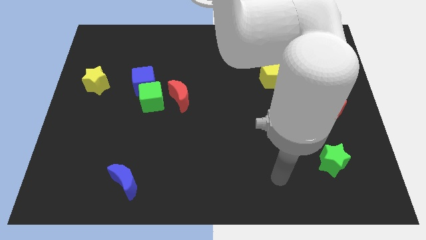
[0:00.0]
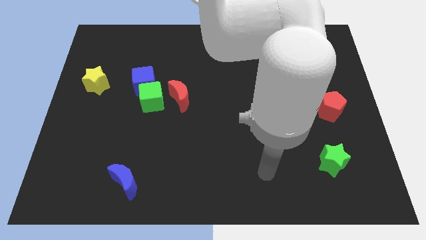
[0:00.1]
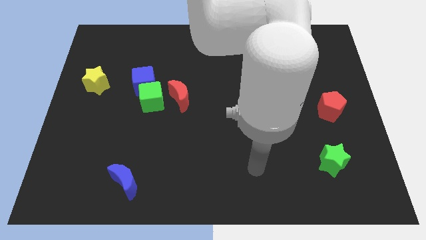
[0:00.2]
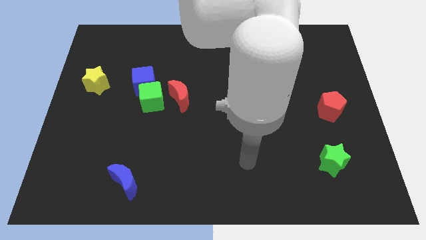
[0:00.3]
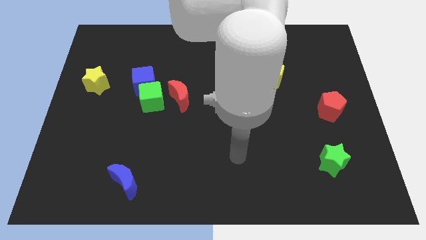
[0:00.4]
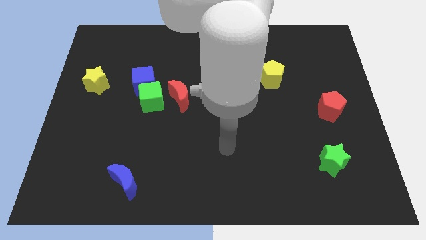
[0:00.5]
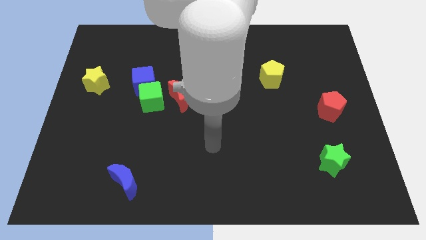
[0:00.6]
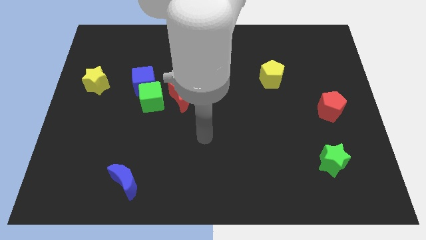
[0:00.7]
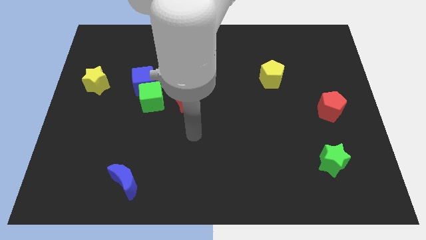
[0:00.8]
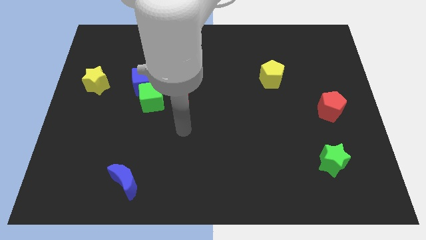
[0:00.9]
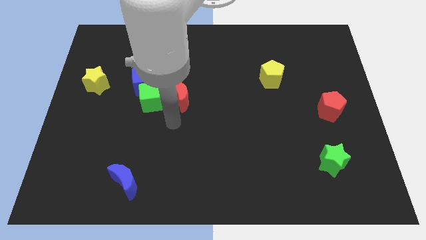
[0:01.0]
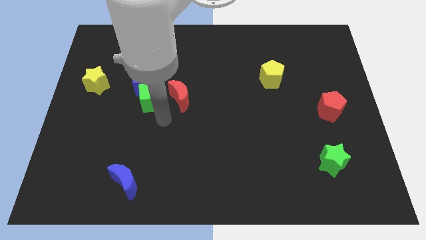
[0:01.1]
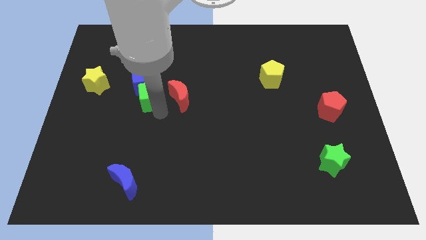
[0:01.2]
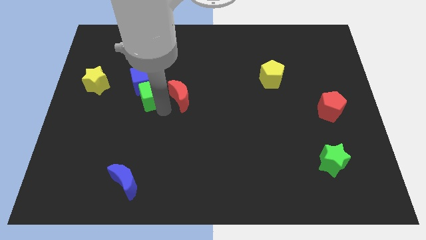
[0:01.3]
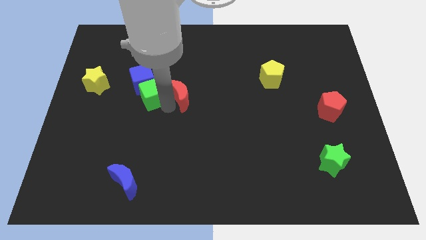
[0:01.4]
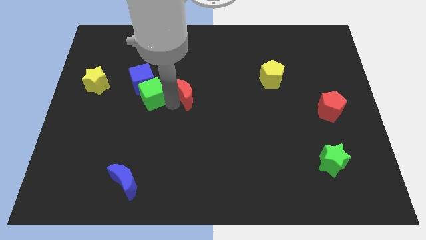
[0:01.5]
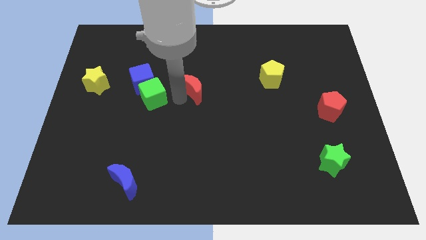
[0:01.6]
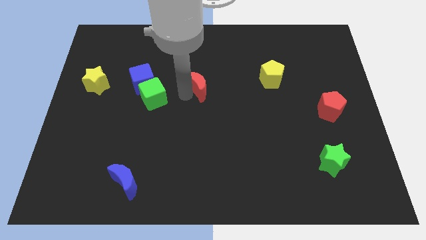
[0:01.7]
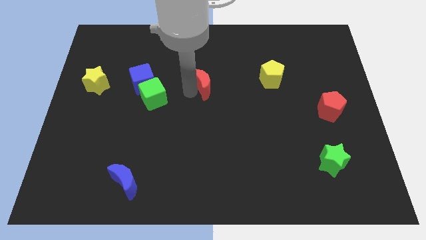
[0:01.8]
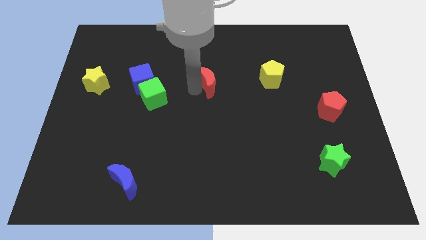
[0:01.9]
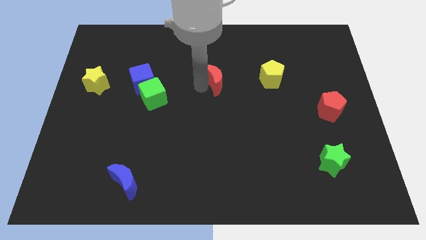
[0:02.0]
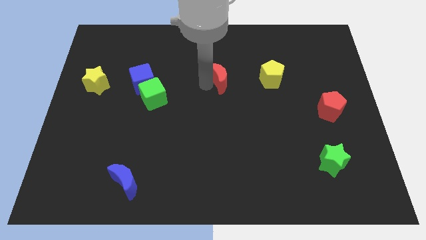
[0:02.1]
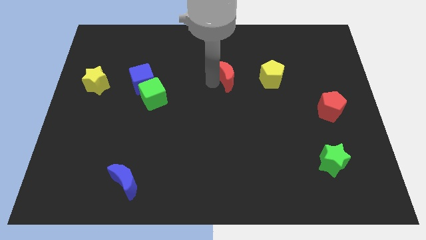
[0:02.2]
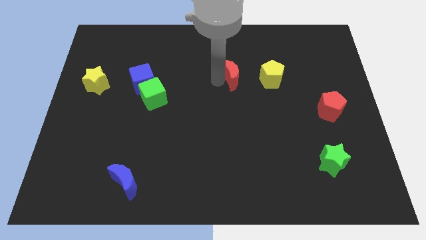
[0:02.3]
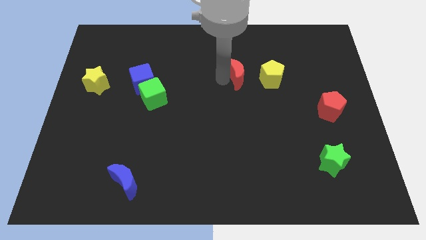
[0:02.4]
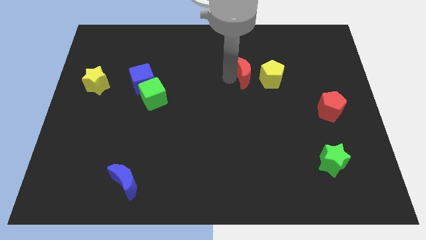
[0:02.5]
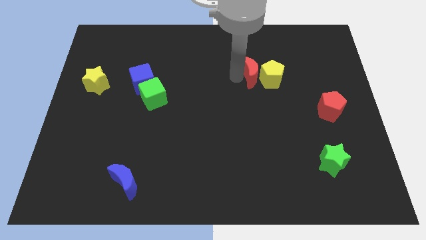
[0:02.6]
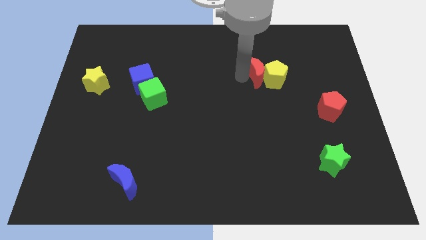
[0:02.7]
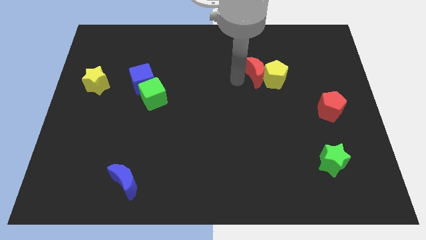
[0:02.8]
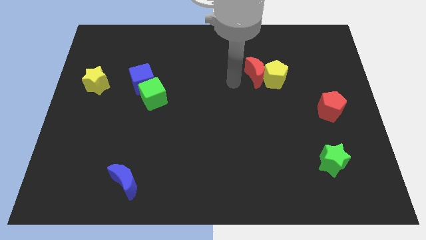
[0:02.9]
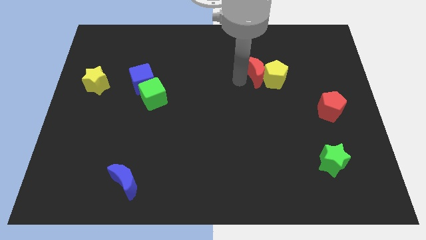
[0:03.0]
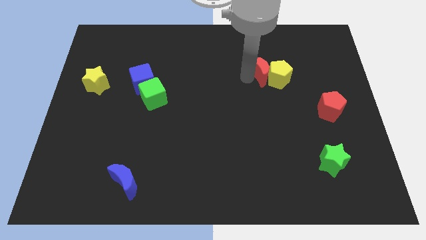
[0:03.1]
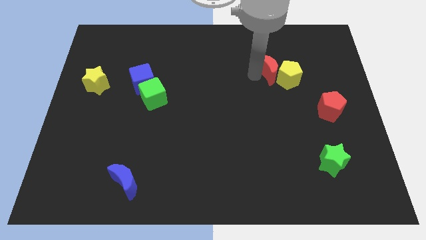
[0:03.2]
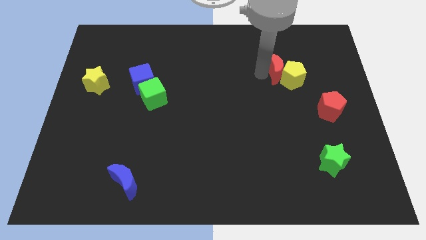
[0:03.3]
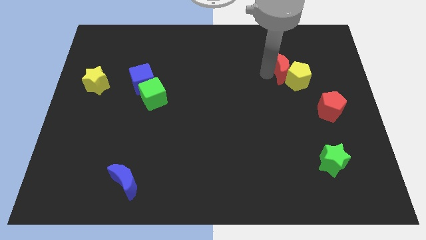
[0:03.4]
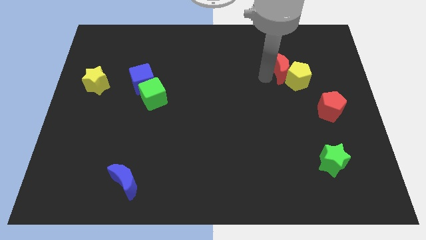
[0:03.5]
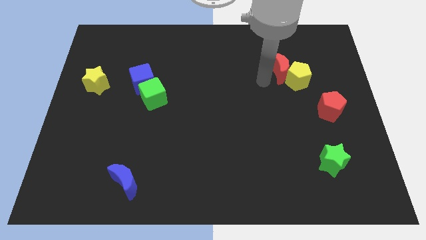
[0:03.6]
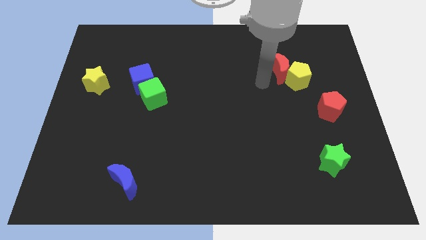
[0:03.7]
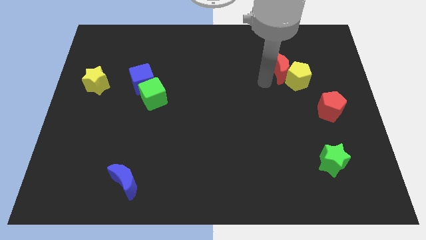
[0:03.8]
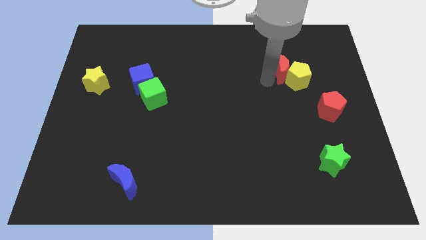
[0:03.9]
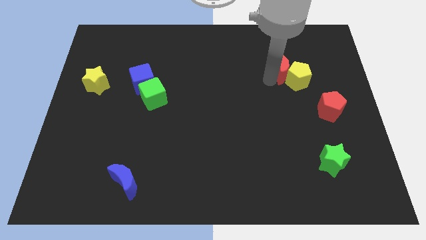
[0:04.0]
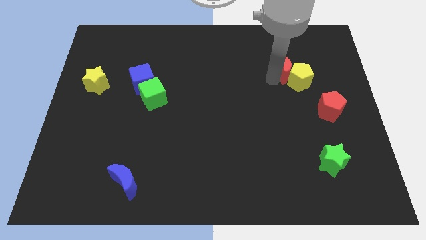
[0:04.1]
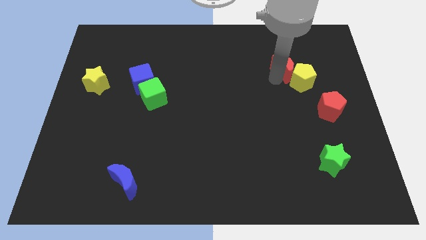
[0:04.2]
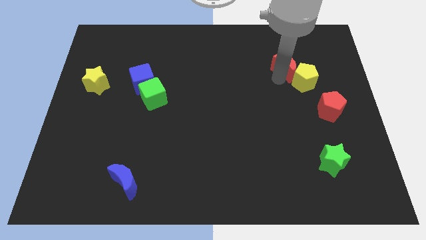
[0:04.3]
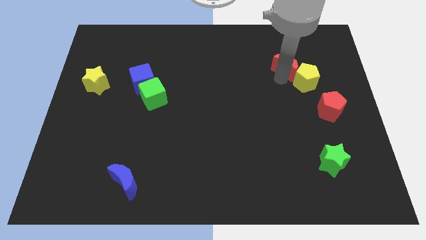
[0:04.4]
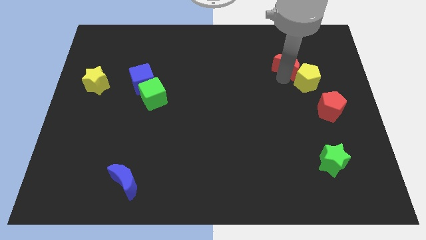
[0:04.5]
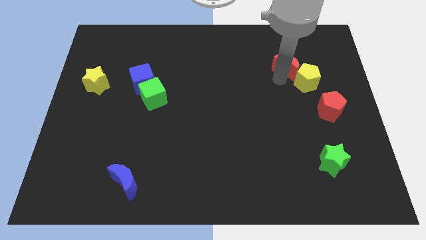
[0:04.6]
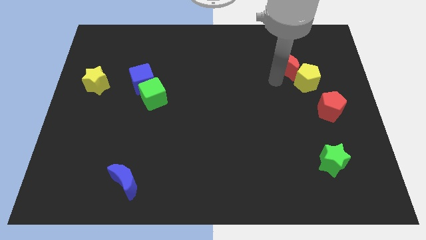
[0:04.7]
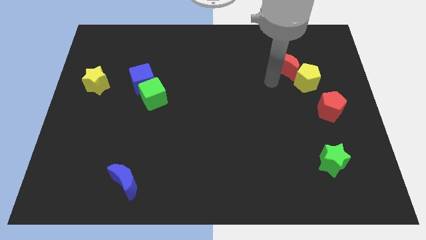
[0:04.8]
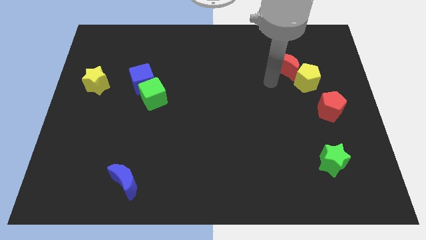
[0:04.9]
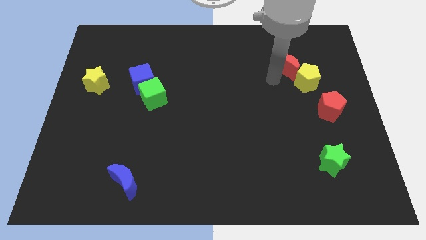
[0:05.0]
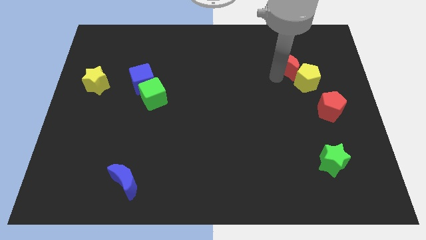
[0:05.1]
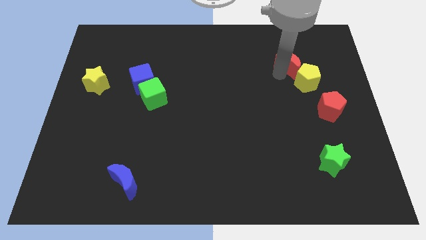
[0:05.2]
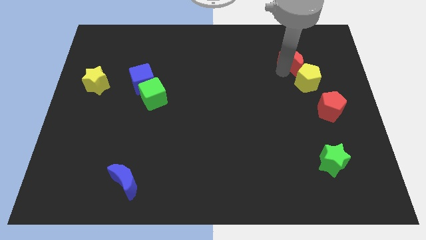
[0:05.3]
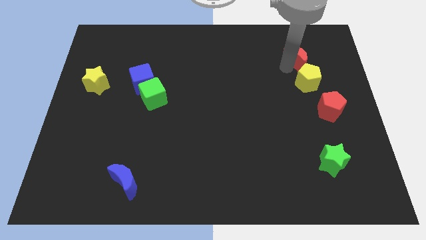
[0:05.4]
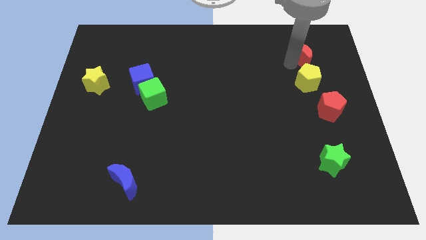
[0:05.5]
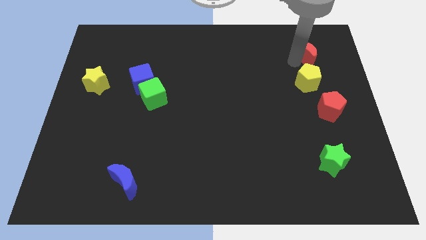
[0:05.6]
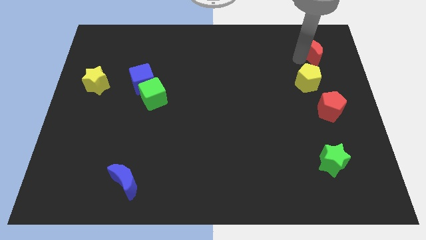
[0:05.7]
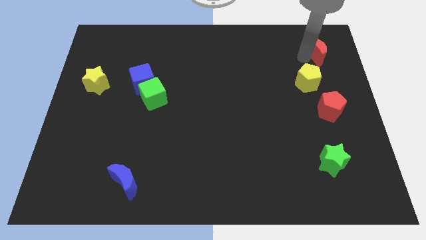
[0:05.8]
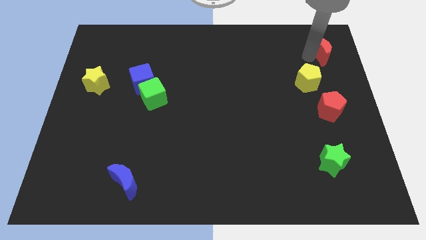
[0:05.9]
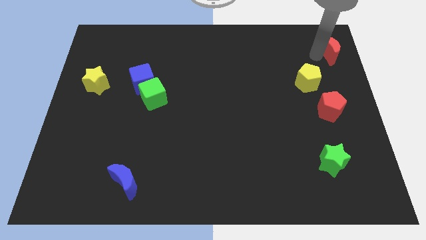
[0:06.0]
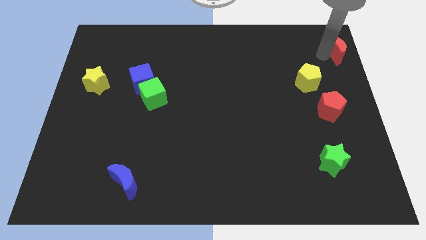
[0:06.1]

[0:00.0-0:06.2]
move the red moon to the top right
